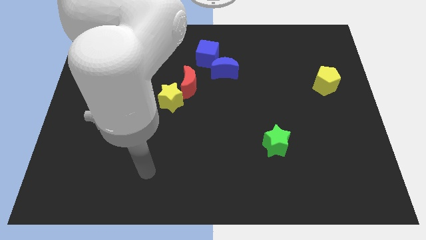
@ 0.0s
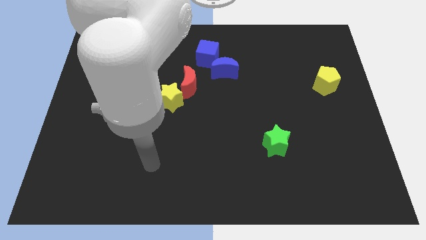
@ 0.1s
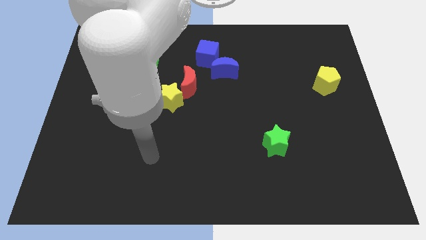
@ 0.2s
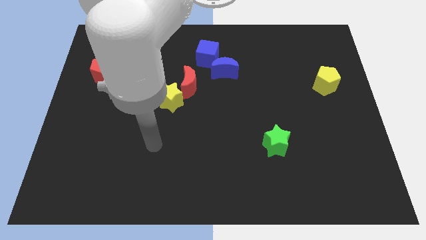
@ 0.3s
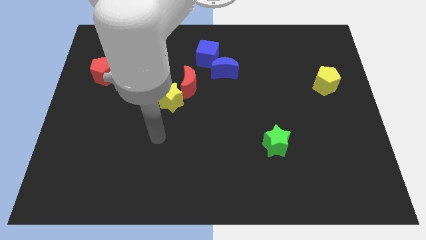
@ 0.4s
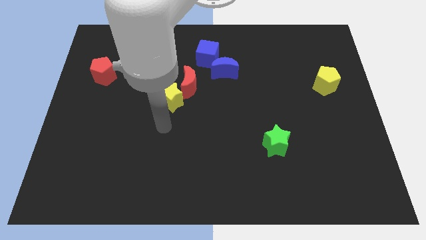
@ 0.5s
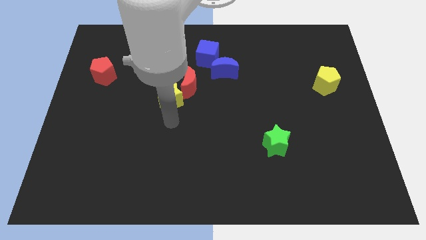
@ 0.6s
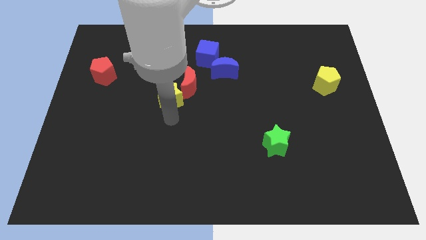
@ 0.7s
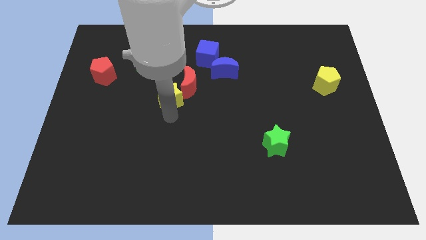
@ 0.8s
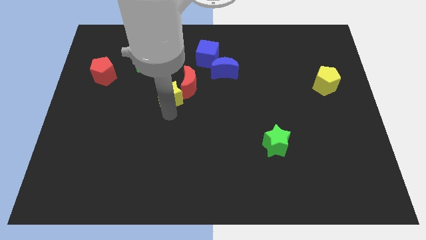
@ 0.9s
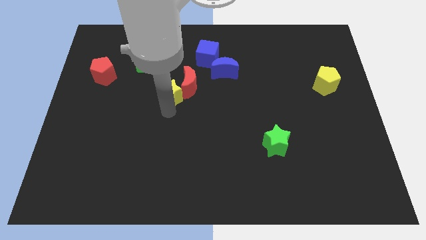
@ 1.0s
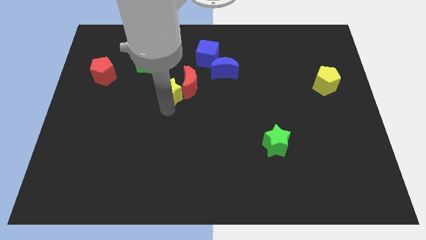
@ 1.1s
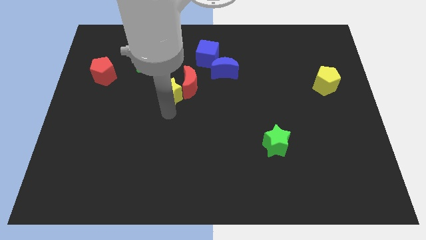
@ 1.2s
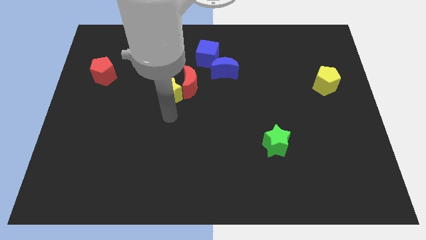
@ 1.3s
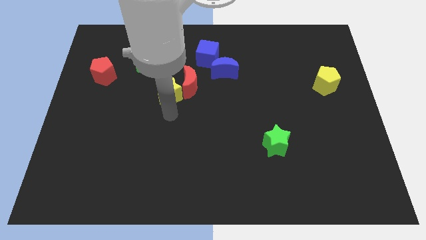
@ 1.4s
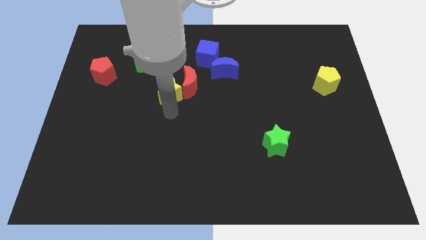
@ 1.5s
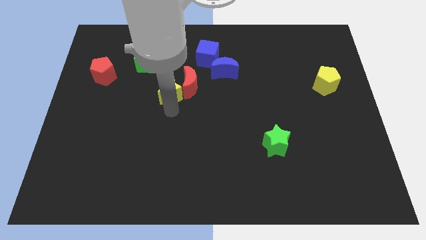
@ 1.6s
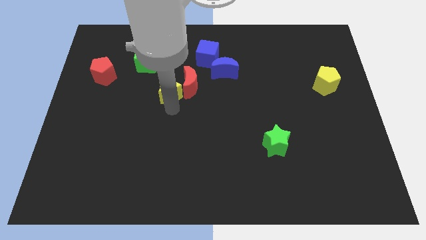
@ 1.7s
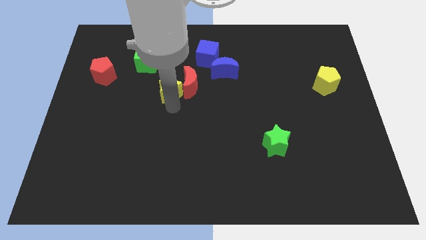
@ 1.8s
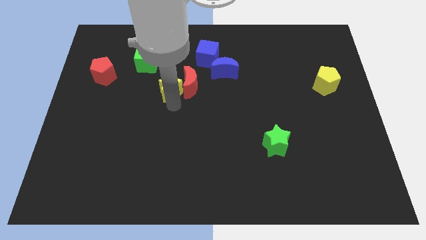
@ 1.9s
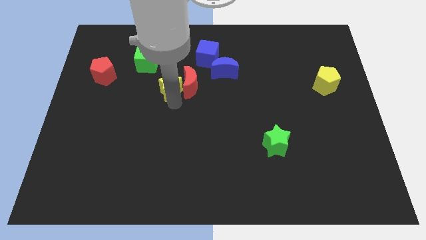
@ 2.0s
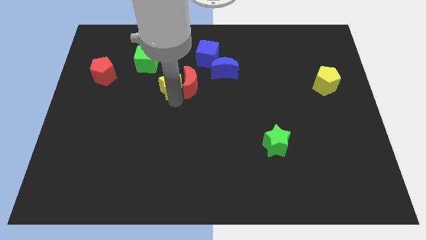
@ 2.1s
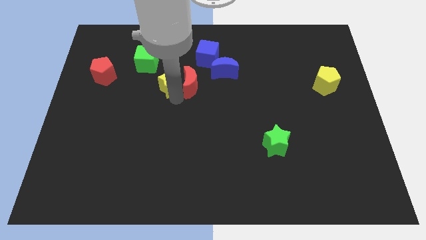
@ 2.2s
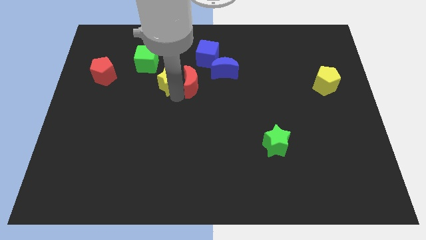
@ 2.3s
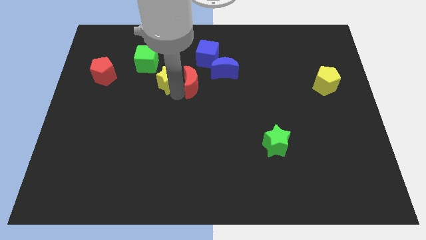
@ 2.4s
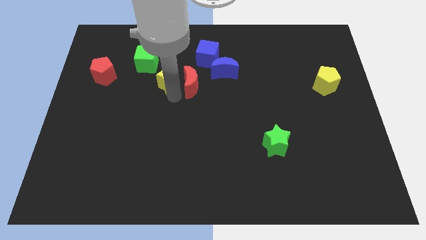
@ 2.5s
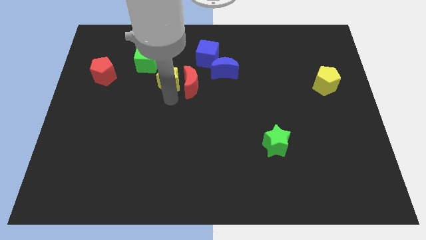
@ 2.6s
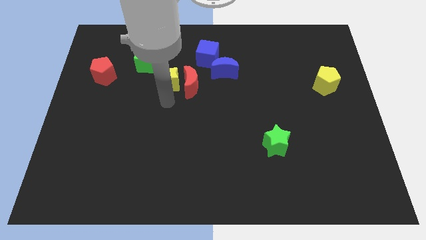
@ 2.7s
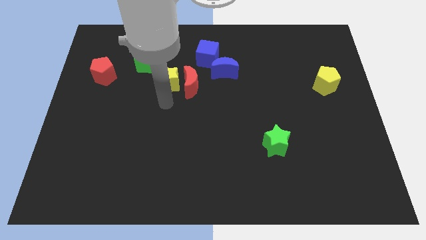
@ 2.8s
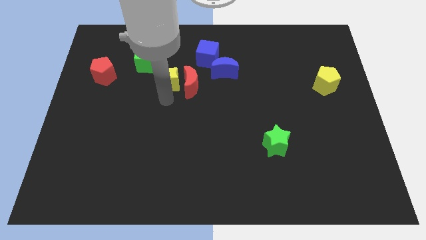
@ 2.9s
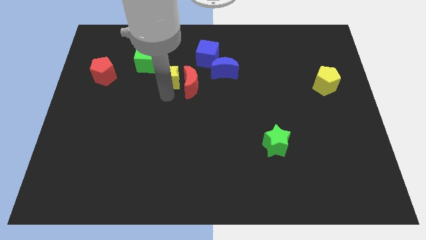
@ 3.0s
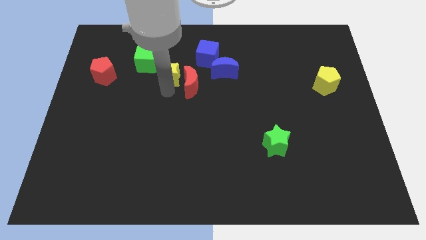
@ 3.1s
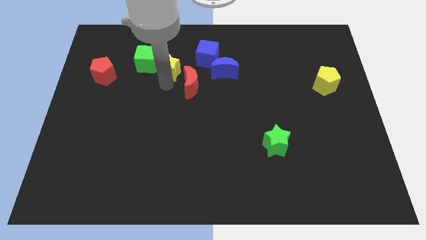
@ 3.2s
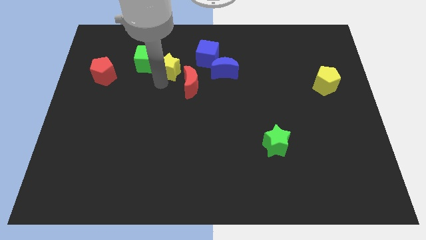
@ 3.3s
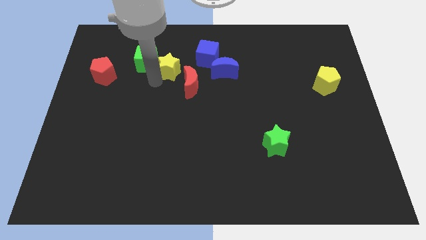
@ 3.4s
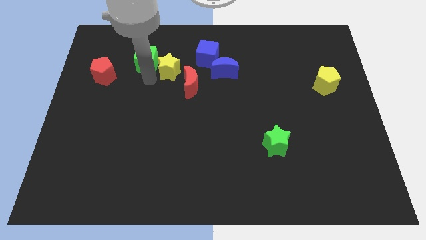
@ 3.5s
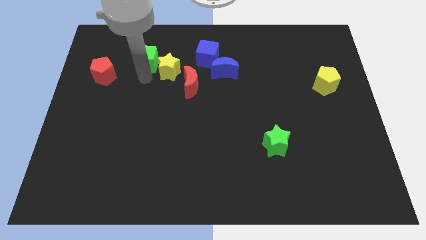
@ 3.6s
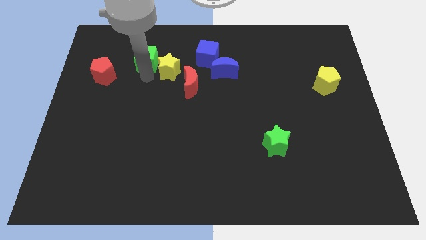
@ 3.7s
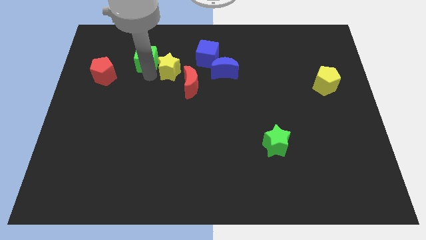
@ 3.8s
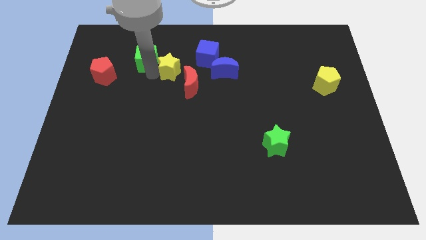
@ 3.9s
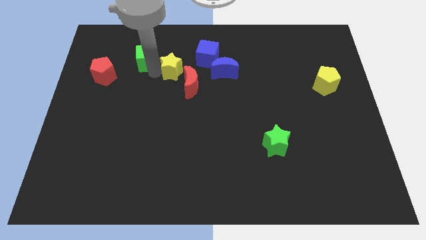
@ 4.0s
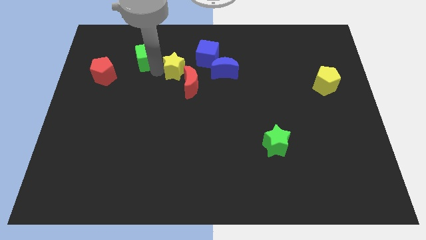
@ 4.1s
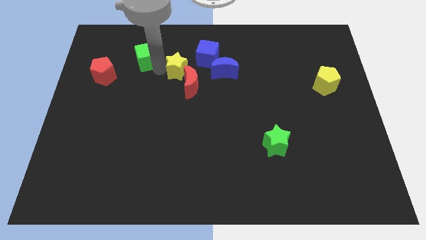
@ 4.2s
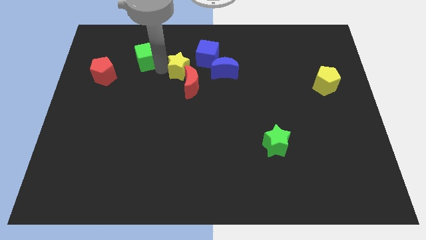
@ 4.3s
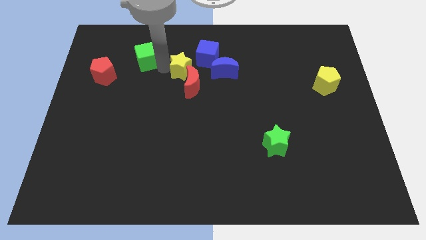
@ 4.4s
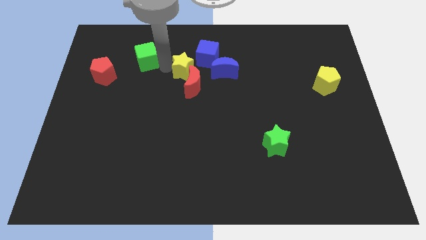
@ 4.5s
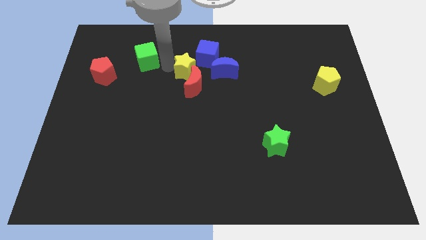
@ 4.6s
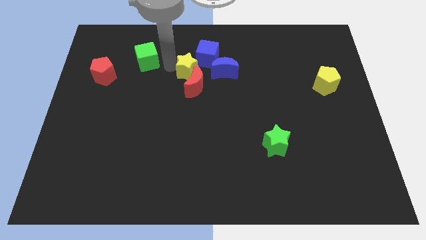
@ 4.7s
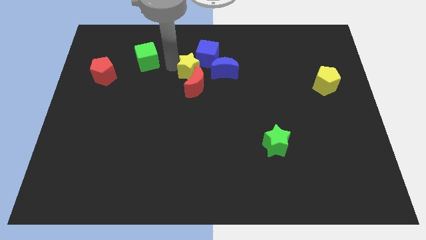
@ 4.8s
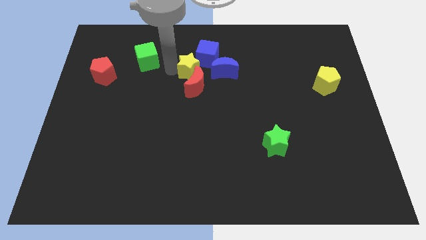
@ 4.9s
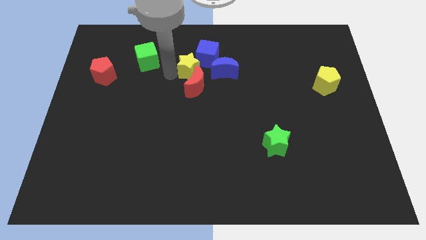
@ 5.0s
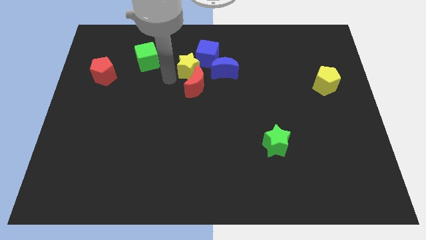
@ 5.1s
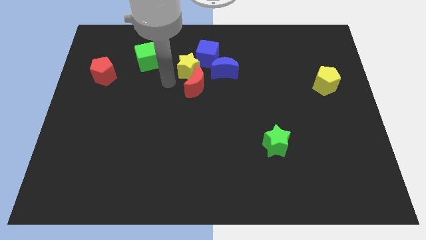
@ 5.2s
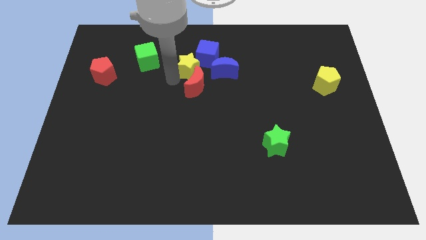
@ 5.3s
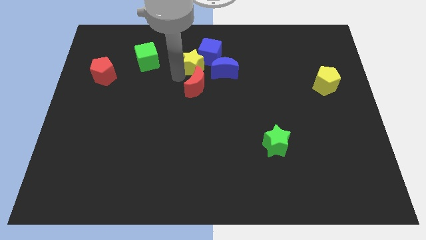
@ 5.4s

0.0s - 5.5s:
put the yellow star next to the blue cube

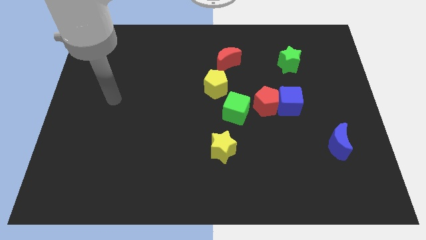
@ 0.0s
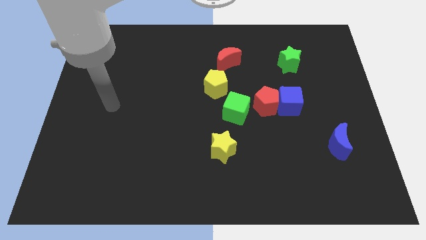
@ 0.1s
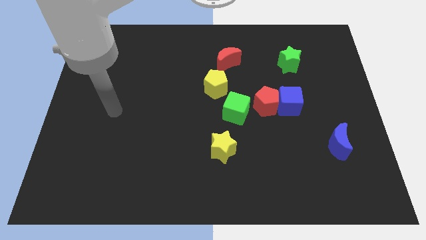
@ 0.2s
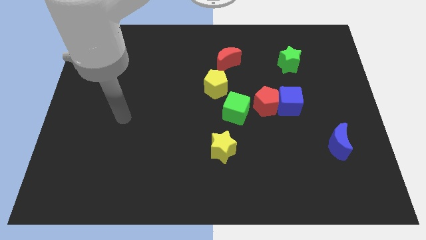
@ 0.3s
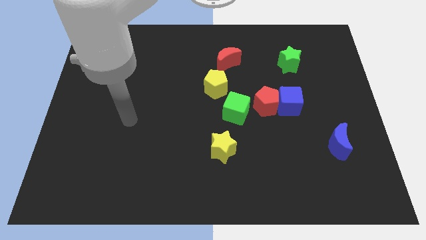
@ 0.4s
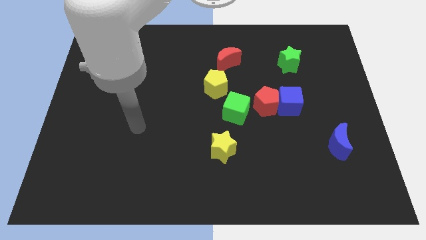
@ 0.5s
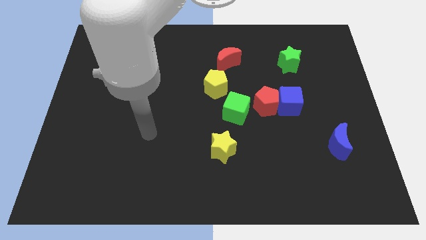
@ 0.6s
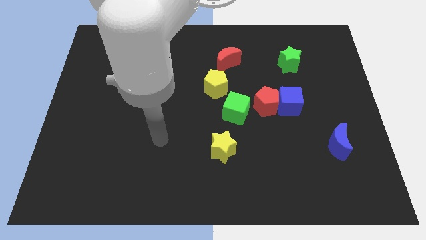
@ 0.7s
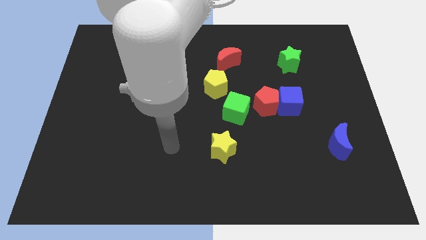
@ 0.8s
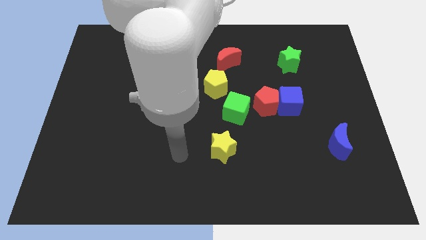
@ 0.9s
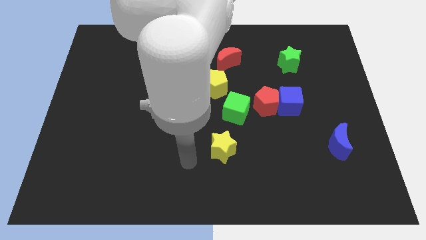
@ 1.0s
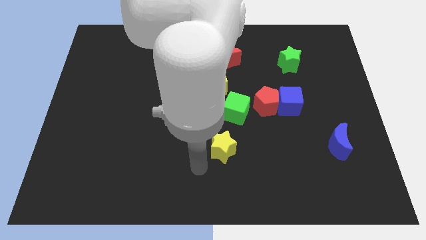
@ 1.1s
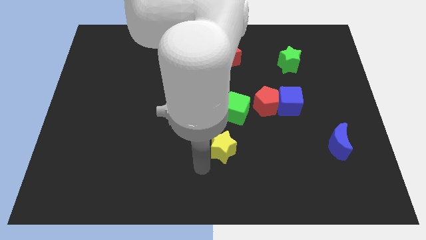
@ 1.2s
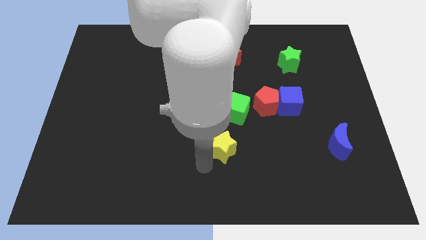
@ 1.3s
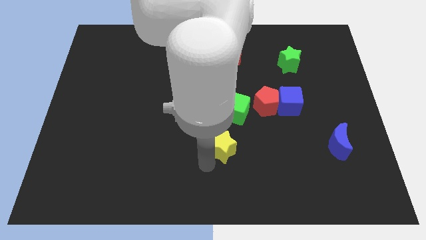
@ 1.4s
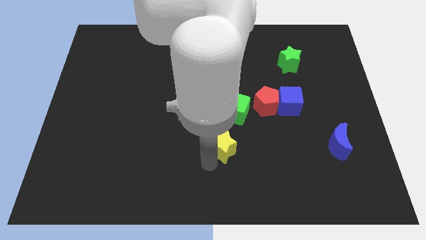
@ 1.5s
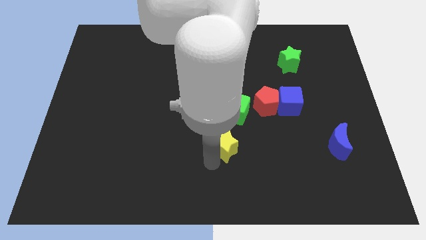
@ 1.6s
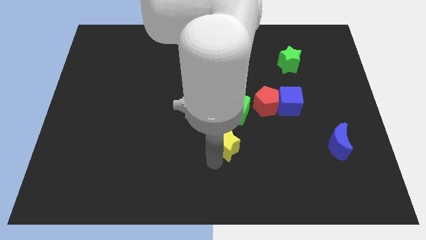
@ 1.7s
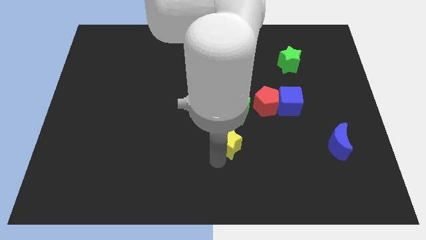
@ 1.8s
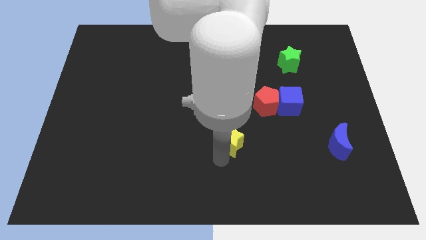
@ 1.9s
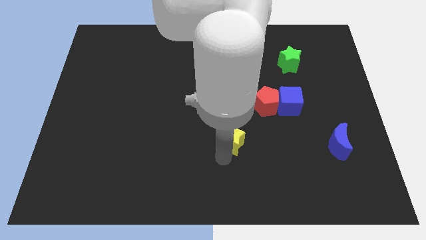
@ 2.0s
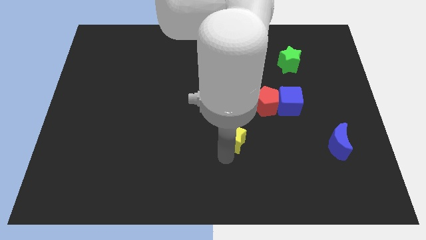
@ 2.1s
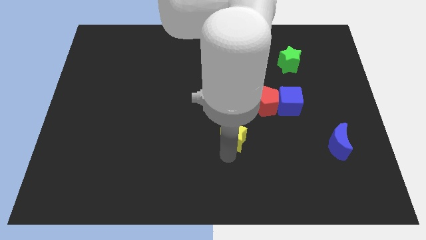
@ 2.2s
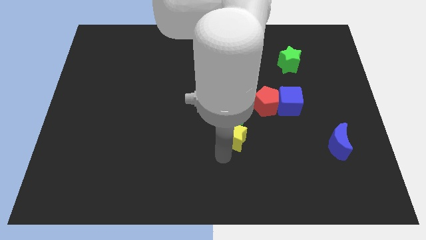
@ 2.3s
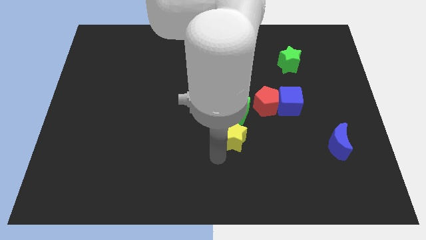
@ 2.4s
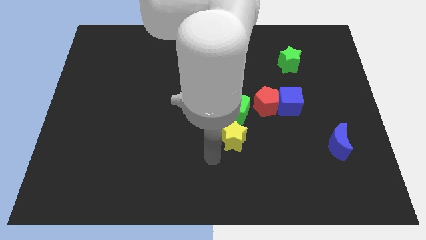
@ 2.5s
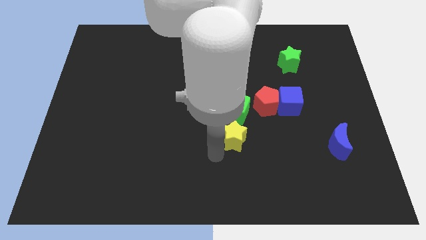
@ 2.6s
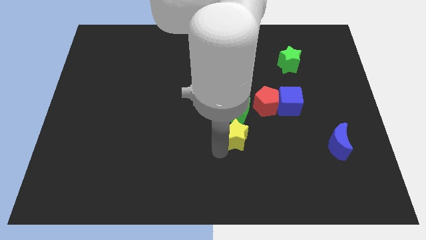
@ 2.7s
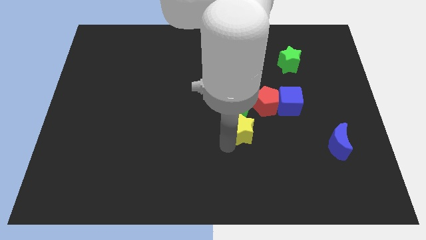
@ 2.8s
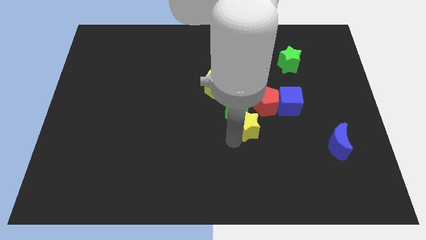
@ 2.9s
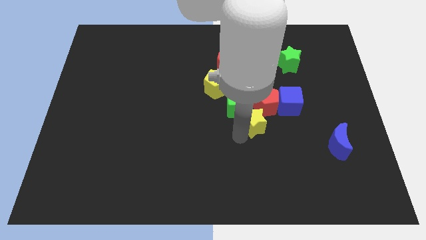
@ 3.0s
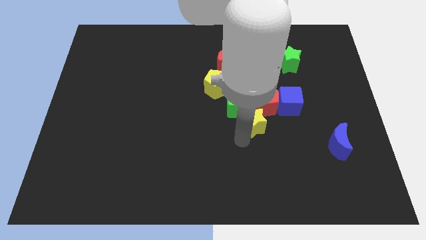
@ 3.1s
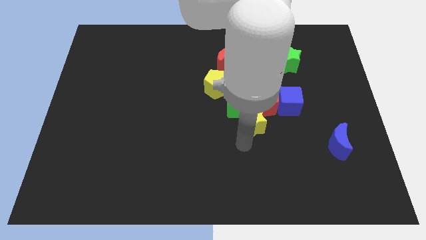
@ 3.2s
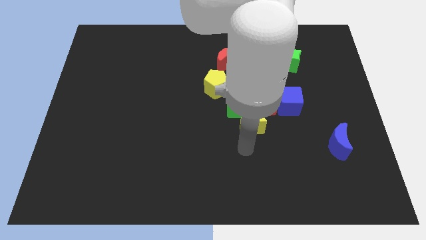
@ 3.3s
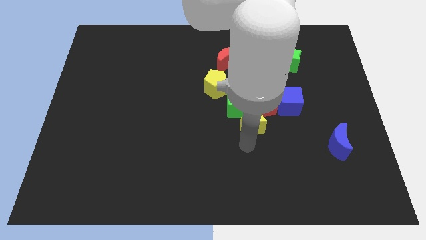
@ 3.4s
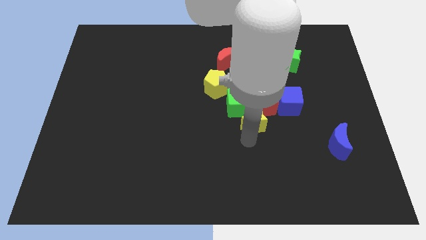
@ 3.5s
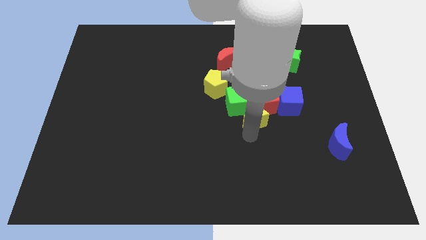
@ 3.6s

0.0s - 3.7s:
slide the yellow star close to the red pentagon
